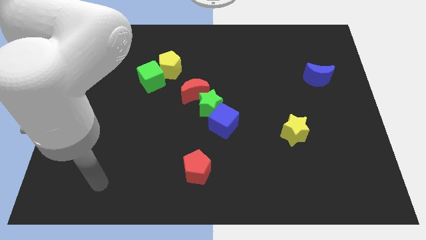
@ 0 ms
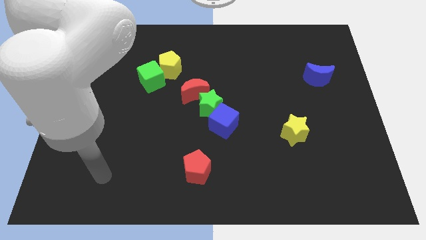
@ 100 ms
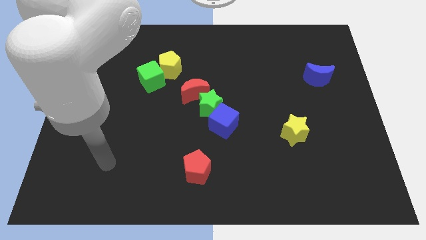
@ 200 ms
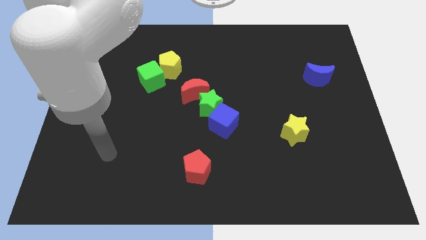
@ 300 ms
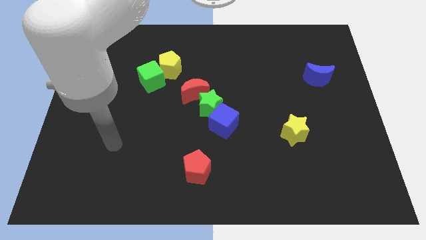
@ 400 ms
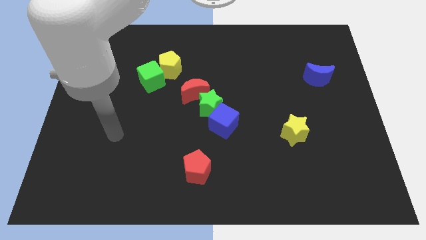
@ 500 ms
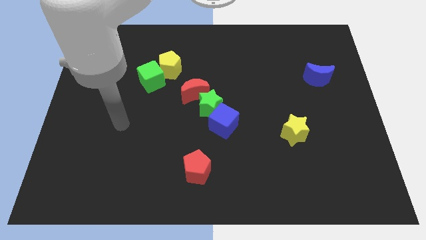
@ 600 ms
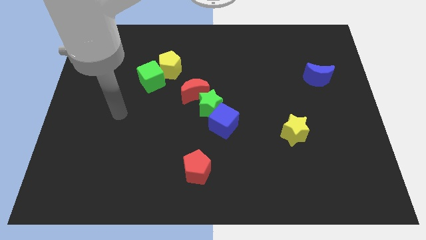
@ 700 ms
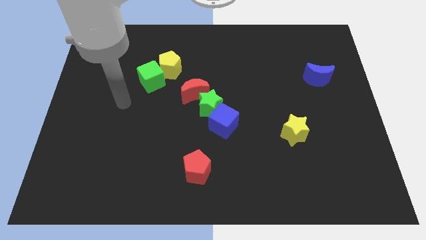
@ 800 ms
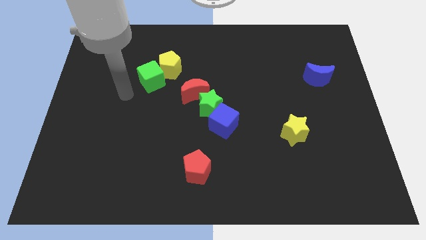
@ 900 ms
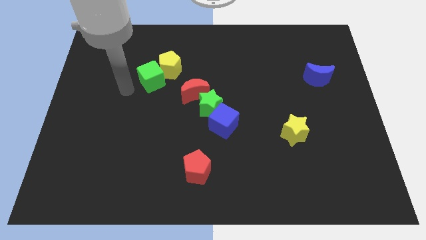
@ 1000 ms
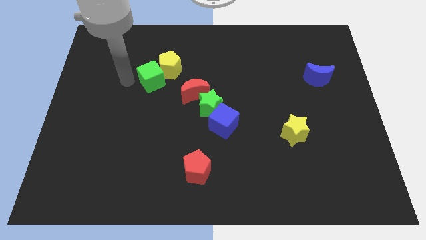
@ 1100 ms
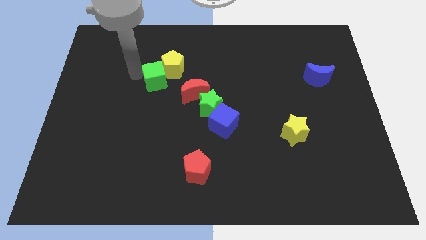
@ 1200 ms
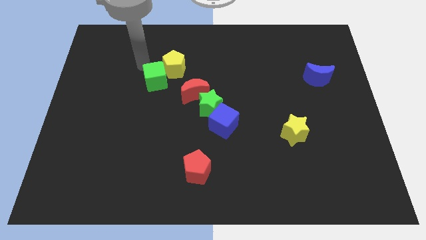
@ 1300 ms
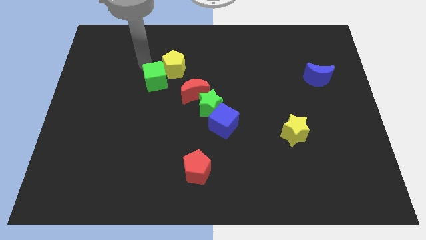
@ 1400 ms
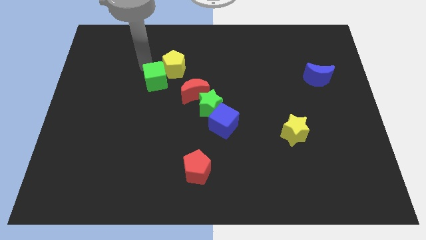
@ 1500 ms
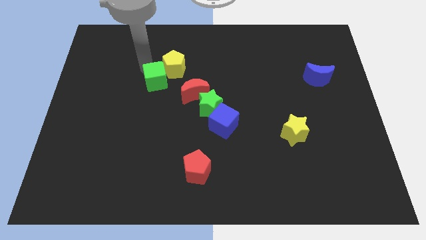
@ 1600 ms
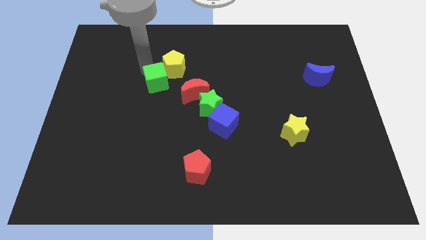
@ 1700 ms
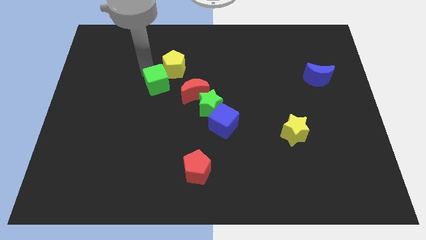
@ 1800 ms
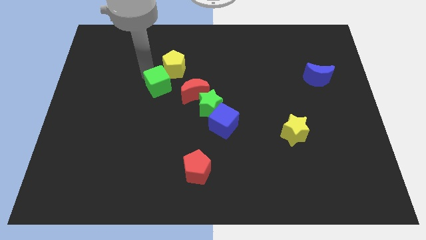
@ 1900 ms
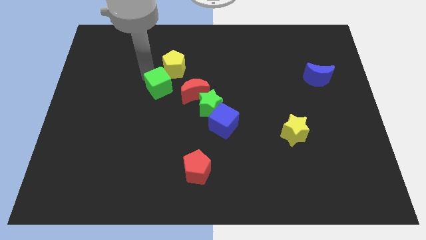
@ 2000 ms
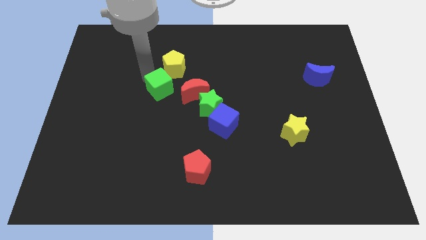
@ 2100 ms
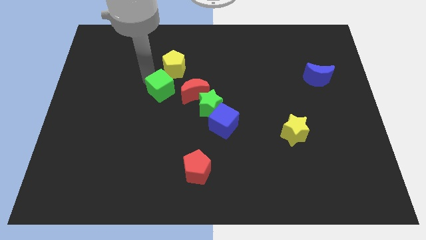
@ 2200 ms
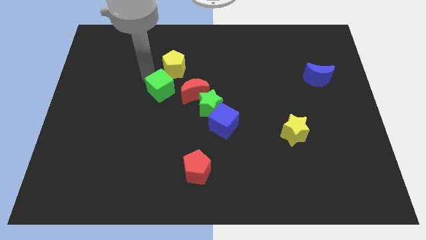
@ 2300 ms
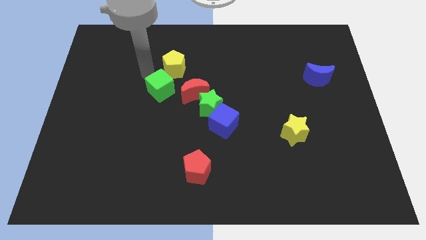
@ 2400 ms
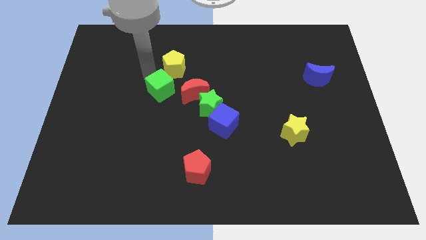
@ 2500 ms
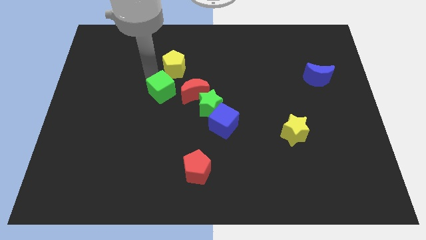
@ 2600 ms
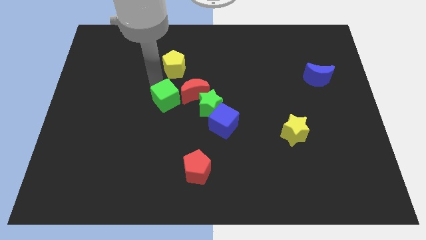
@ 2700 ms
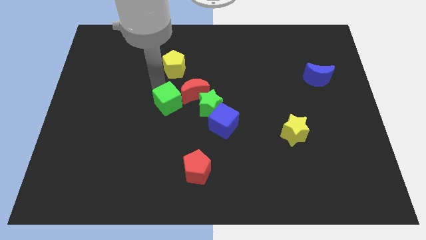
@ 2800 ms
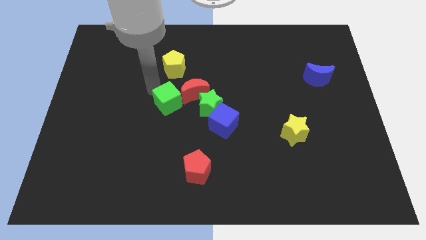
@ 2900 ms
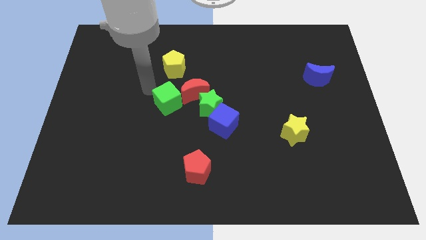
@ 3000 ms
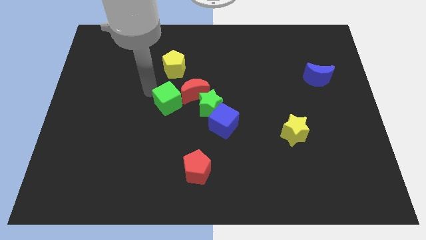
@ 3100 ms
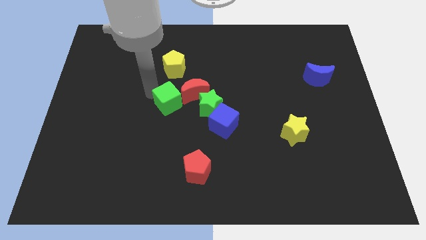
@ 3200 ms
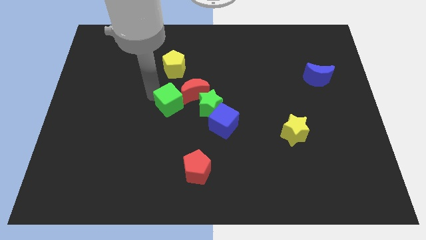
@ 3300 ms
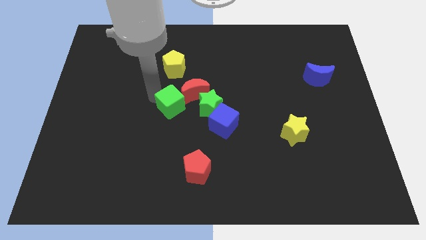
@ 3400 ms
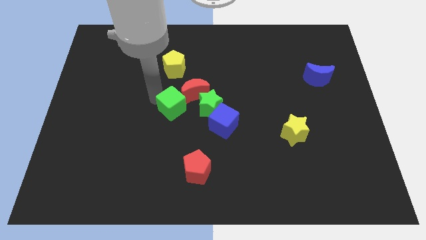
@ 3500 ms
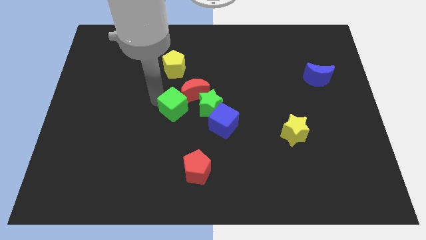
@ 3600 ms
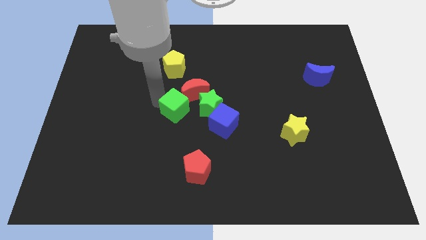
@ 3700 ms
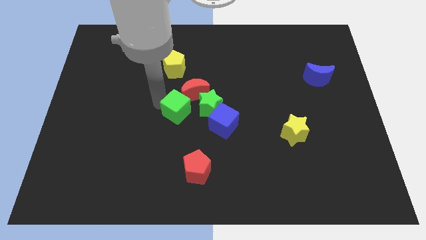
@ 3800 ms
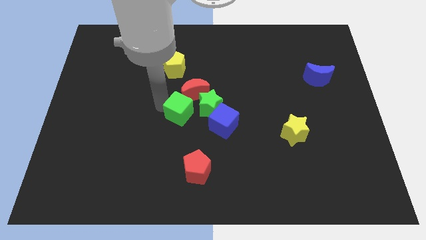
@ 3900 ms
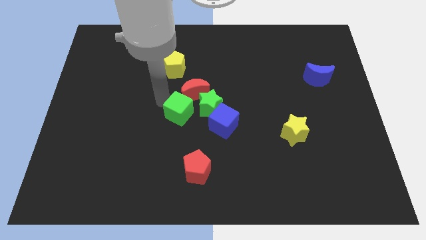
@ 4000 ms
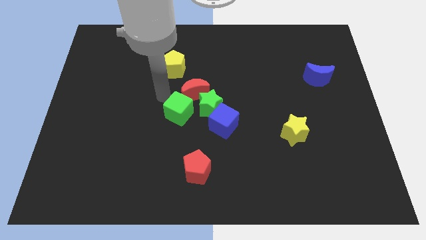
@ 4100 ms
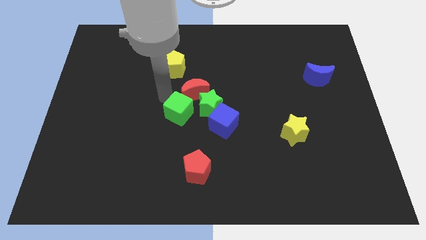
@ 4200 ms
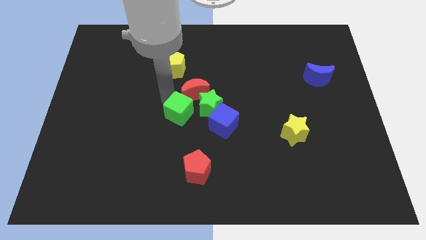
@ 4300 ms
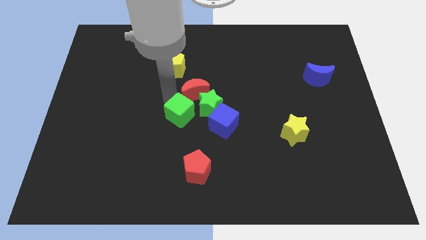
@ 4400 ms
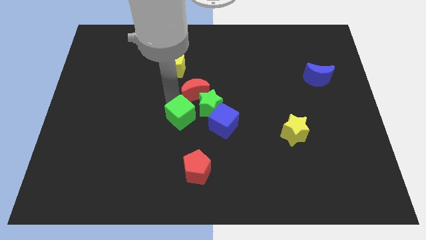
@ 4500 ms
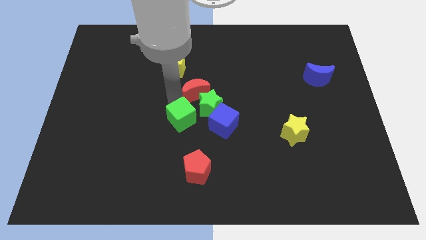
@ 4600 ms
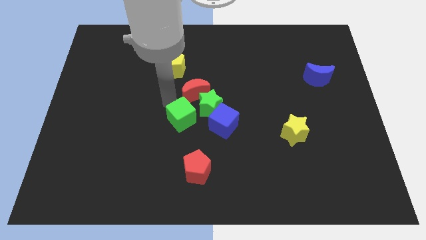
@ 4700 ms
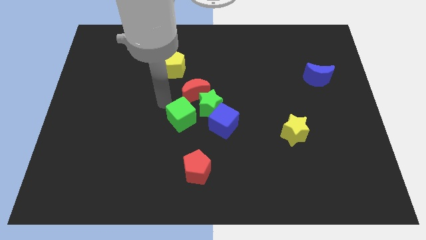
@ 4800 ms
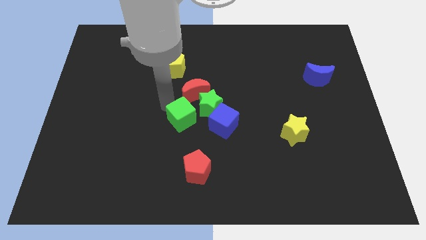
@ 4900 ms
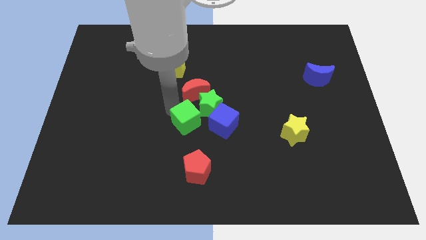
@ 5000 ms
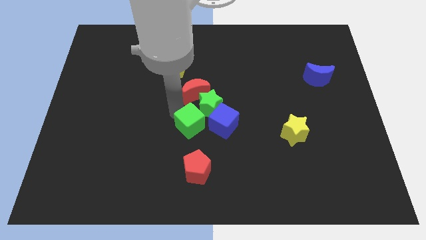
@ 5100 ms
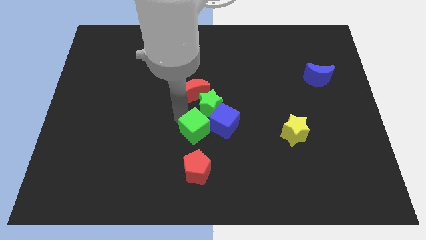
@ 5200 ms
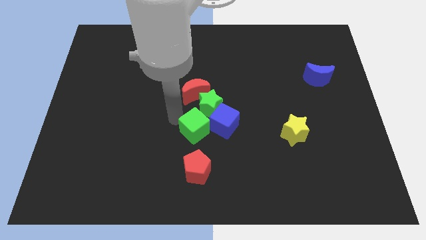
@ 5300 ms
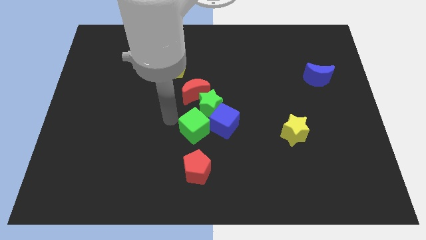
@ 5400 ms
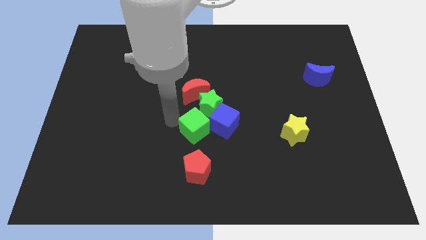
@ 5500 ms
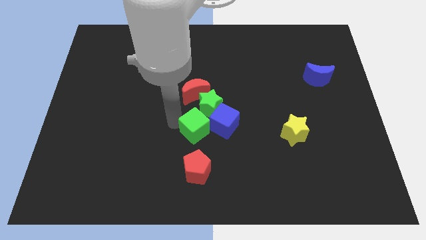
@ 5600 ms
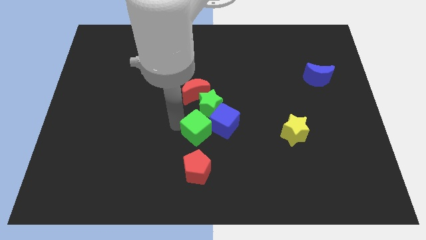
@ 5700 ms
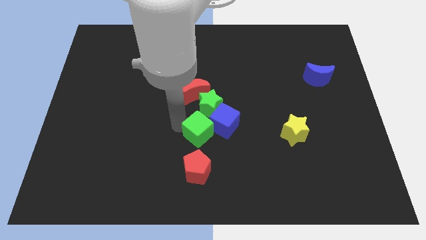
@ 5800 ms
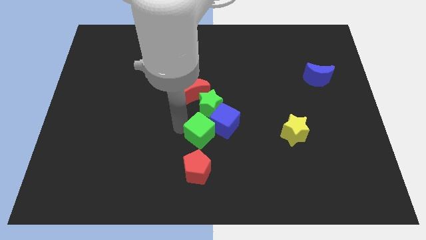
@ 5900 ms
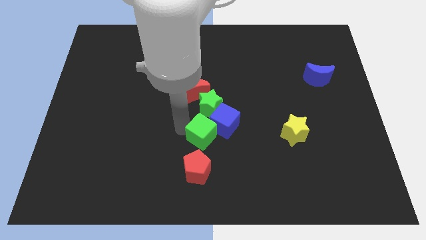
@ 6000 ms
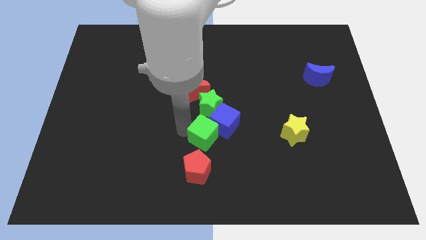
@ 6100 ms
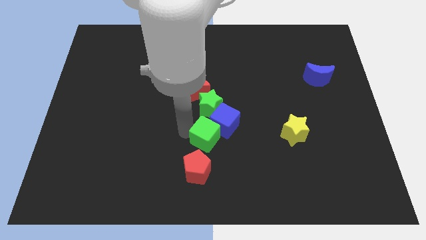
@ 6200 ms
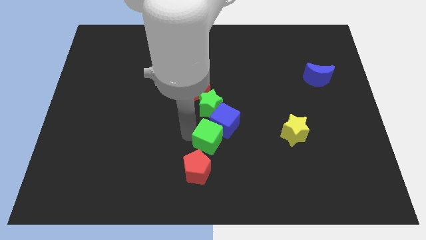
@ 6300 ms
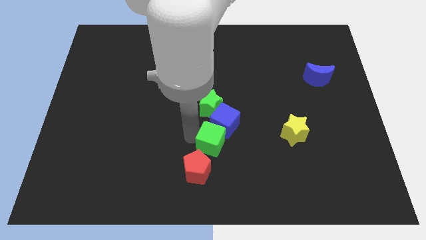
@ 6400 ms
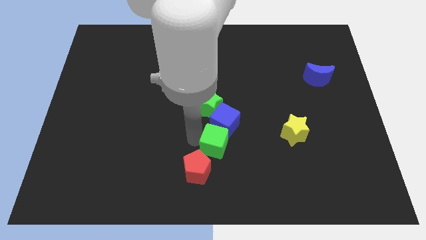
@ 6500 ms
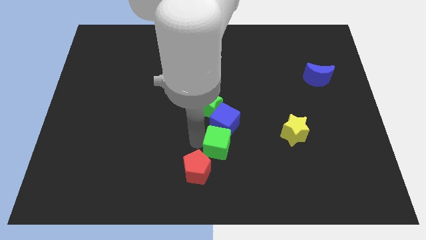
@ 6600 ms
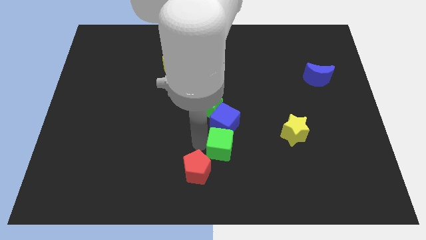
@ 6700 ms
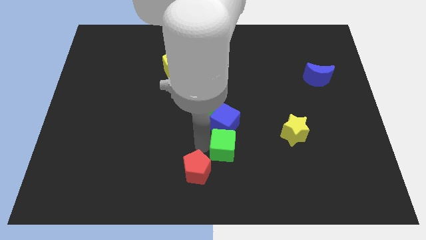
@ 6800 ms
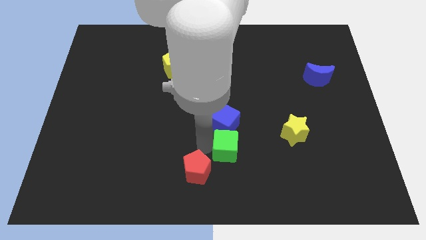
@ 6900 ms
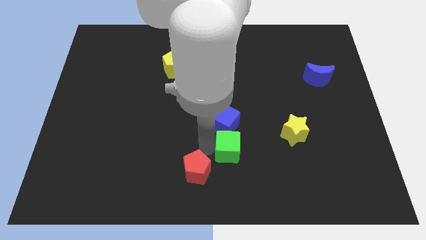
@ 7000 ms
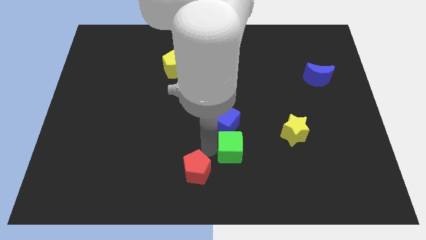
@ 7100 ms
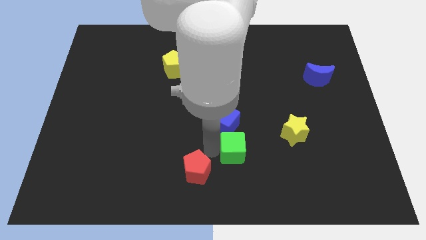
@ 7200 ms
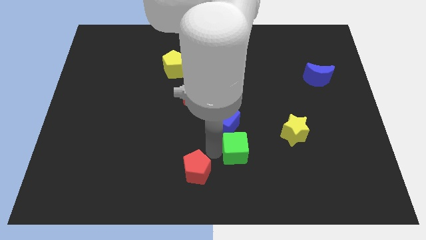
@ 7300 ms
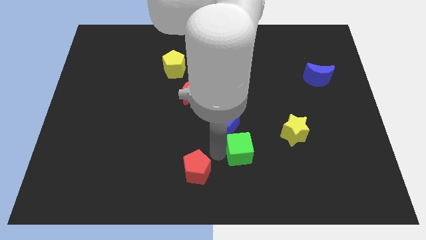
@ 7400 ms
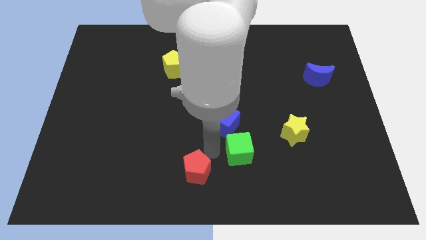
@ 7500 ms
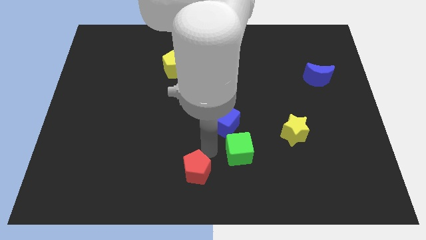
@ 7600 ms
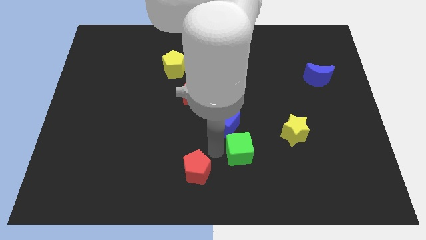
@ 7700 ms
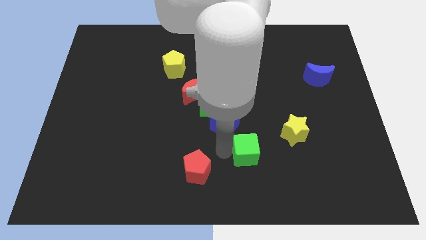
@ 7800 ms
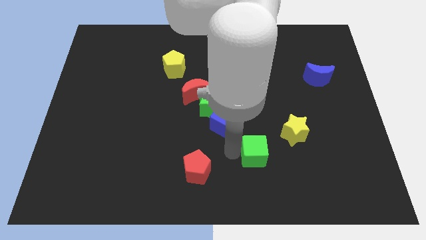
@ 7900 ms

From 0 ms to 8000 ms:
slide the green cube diagonally down and to the left of the yellow star
